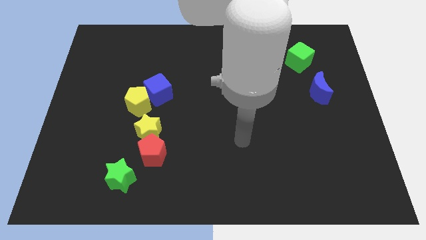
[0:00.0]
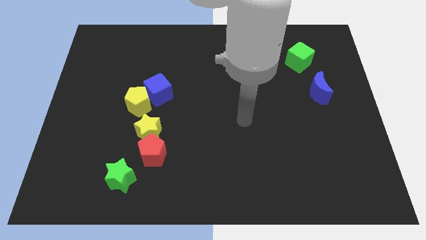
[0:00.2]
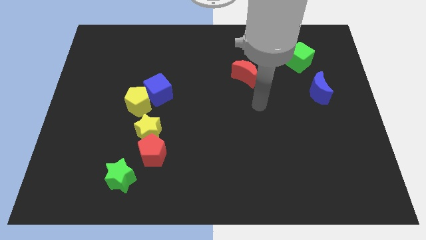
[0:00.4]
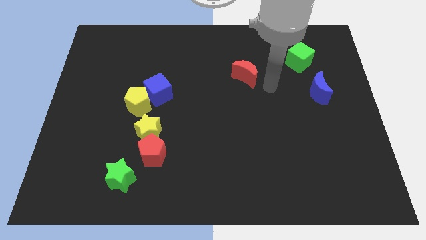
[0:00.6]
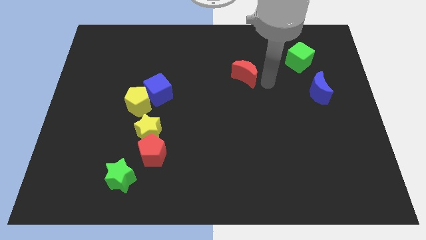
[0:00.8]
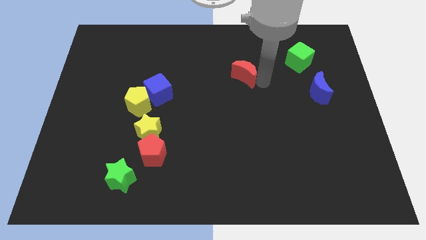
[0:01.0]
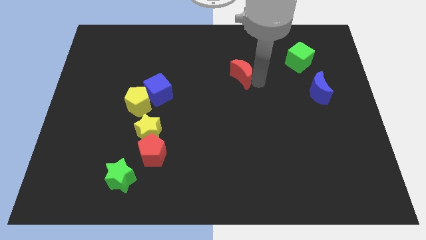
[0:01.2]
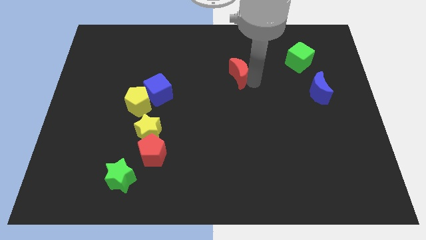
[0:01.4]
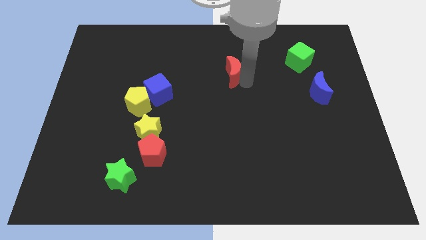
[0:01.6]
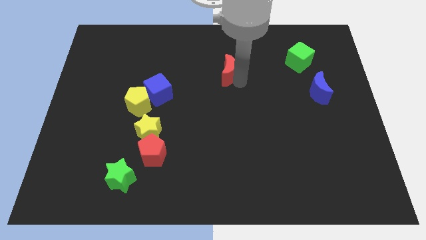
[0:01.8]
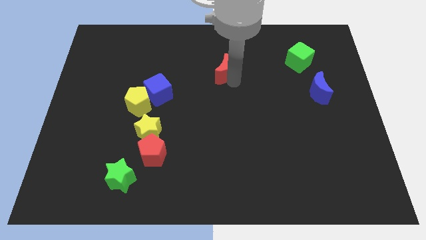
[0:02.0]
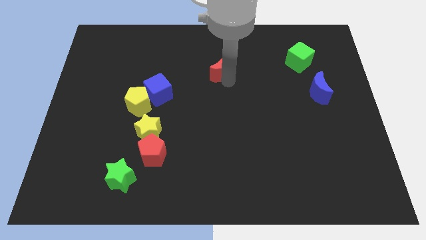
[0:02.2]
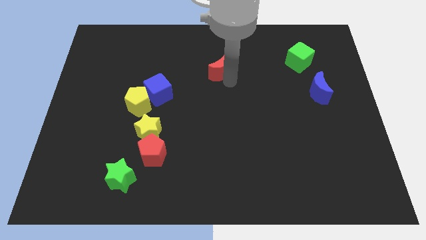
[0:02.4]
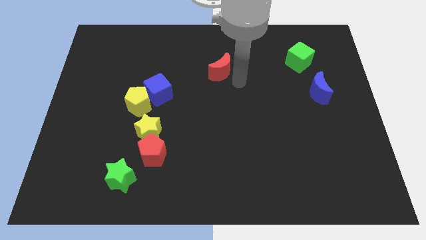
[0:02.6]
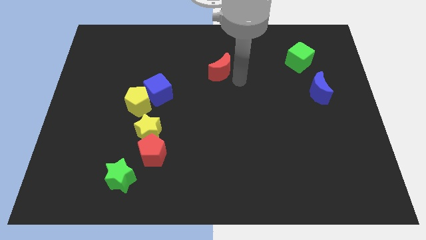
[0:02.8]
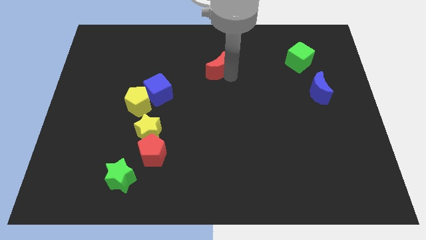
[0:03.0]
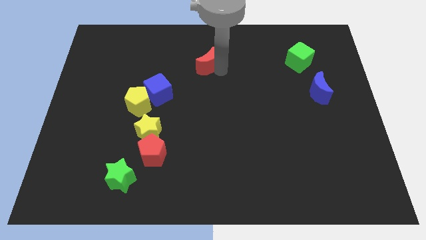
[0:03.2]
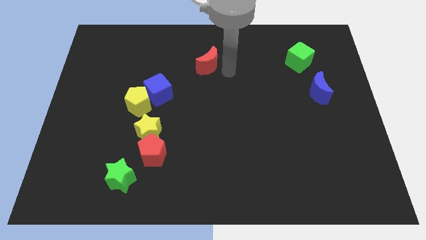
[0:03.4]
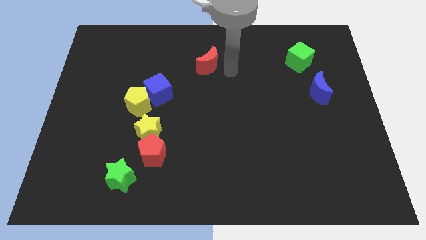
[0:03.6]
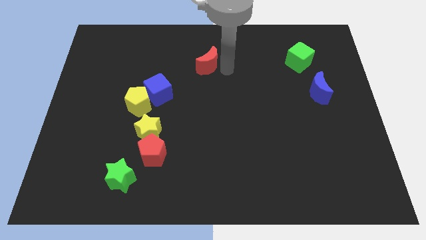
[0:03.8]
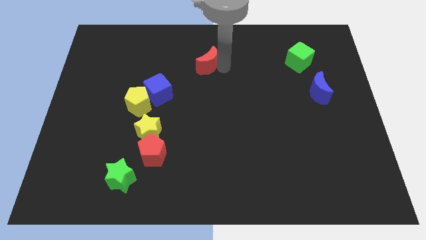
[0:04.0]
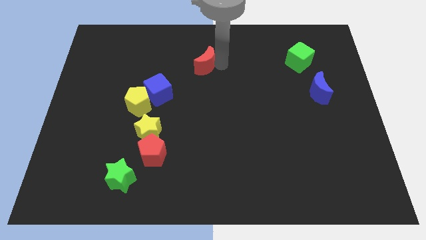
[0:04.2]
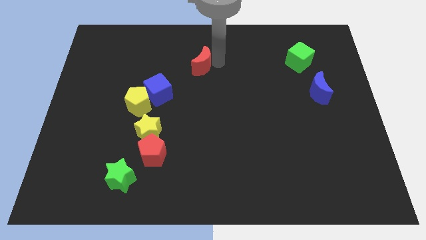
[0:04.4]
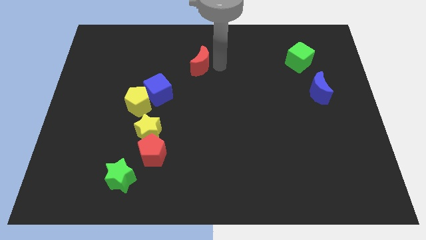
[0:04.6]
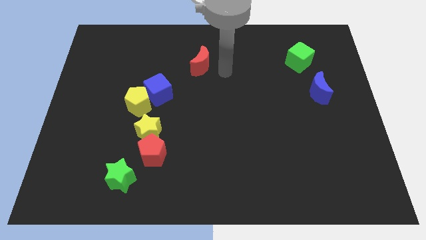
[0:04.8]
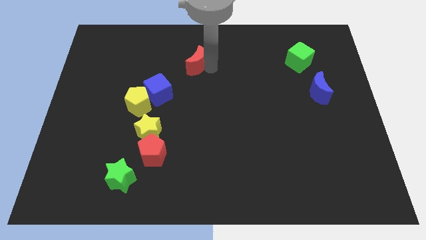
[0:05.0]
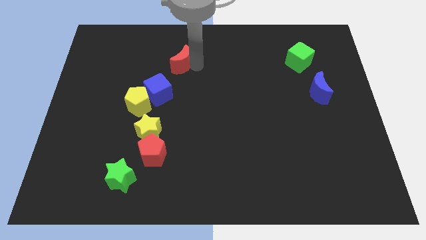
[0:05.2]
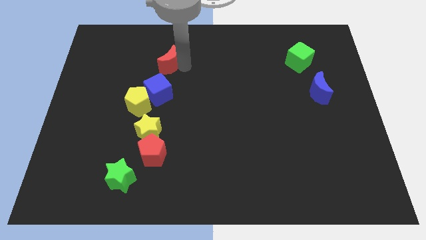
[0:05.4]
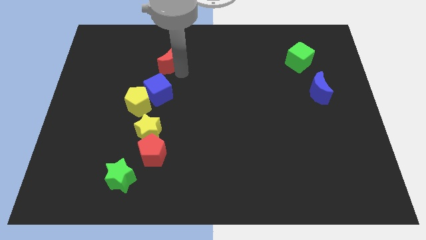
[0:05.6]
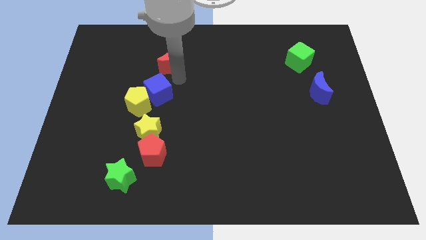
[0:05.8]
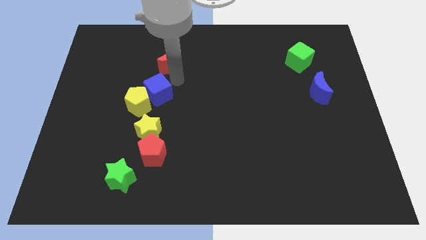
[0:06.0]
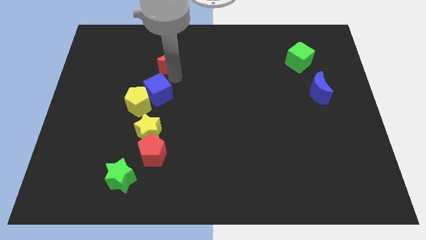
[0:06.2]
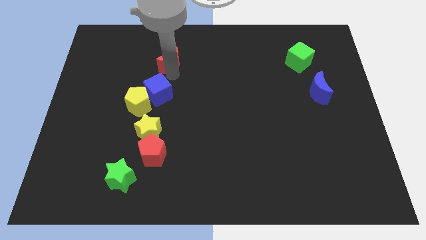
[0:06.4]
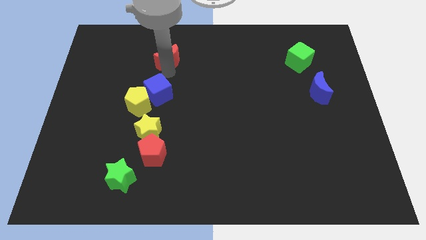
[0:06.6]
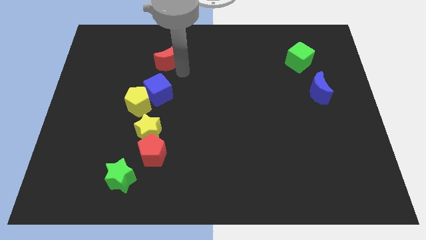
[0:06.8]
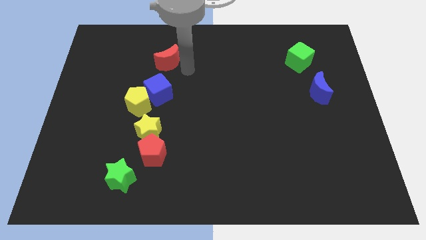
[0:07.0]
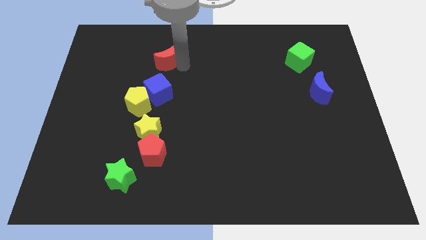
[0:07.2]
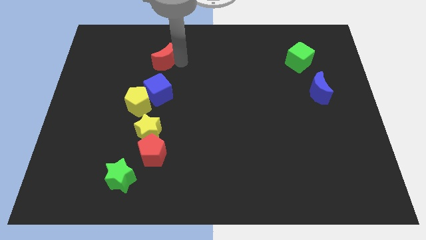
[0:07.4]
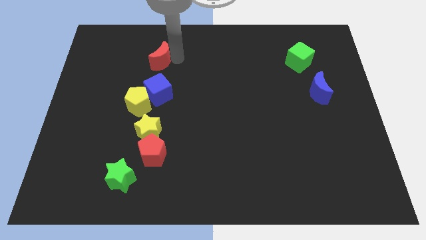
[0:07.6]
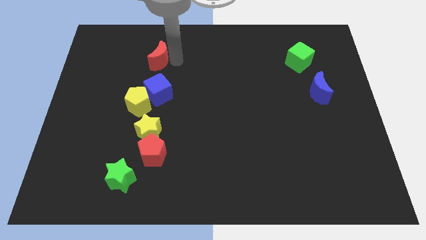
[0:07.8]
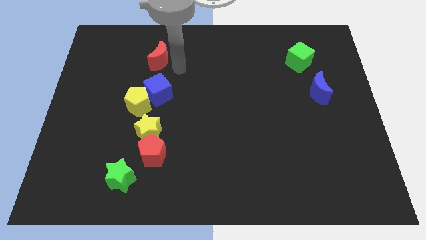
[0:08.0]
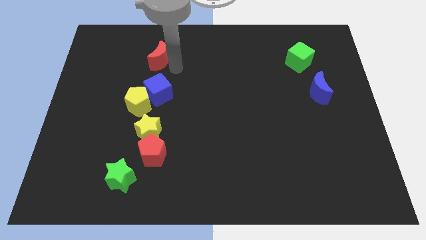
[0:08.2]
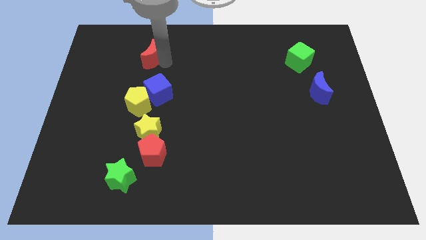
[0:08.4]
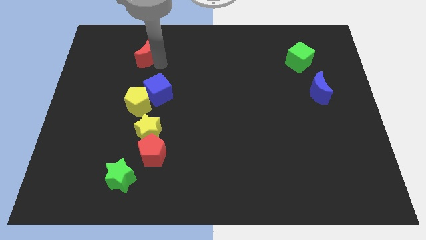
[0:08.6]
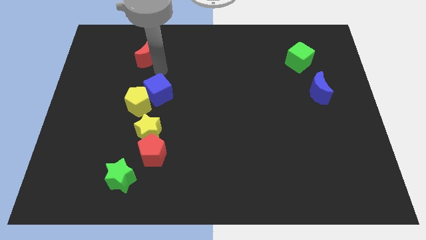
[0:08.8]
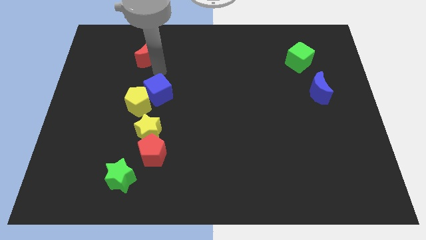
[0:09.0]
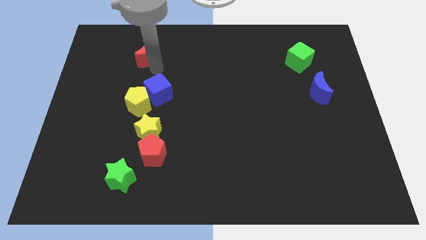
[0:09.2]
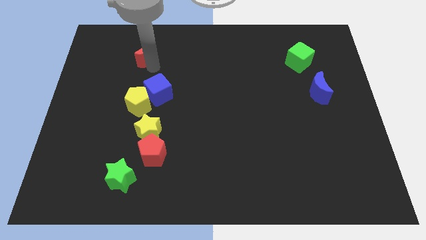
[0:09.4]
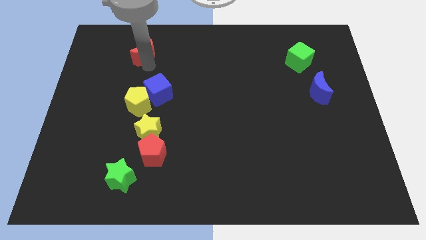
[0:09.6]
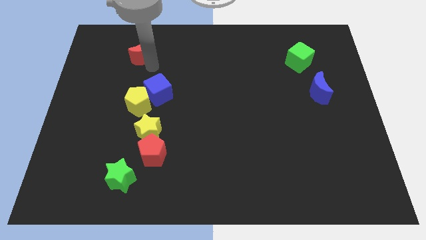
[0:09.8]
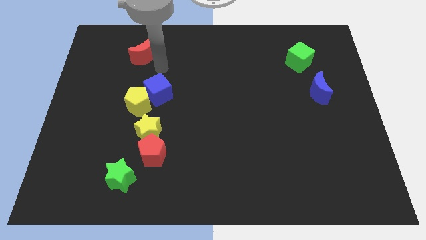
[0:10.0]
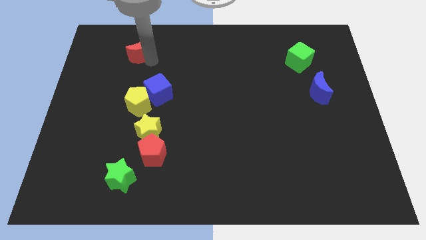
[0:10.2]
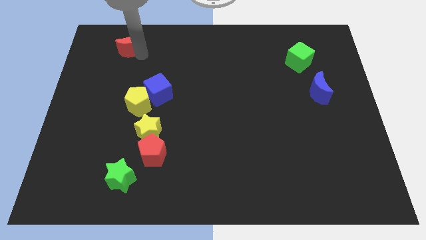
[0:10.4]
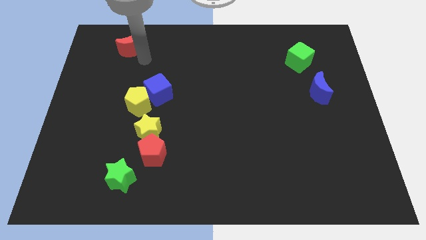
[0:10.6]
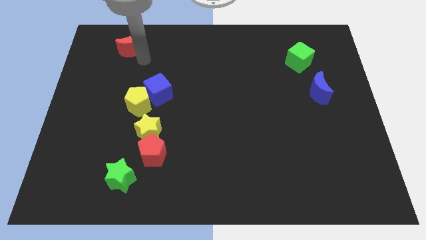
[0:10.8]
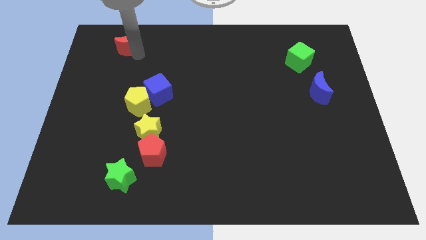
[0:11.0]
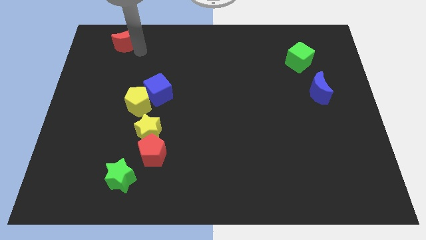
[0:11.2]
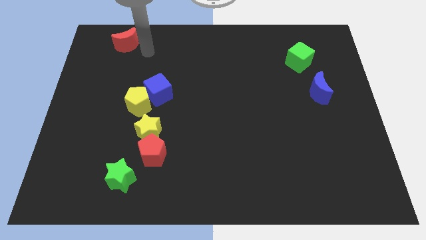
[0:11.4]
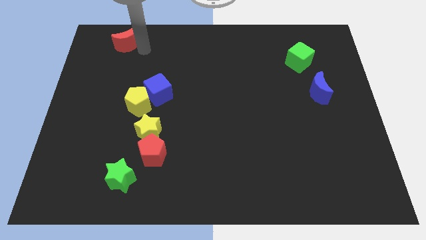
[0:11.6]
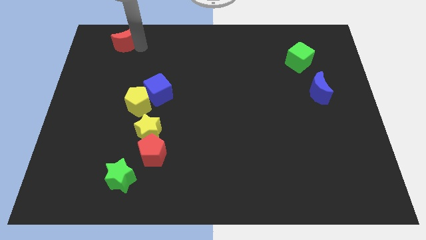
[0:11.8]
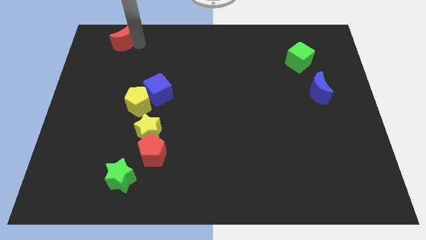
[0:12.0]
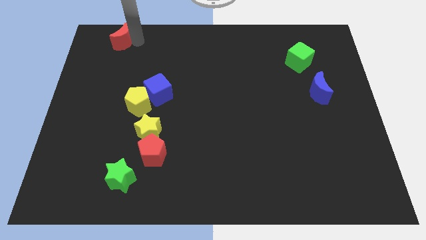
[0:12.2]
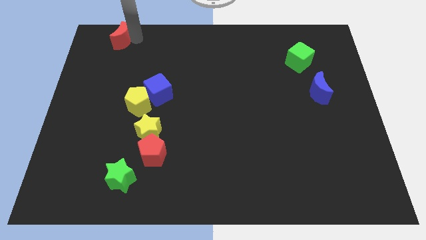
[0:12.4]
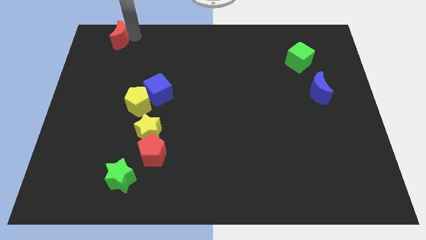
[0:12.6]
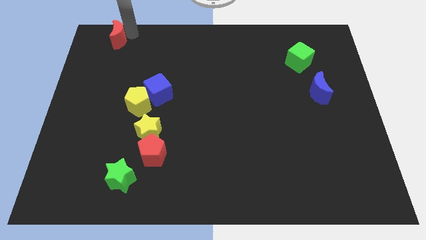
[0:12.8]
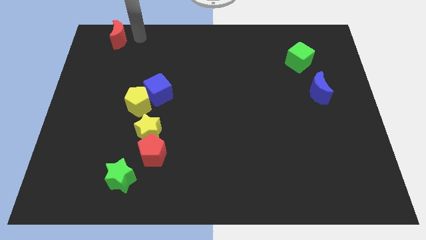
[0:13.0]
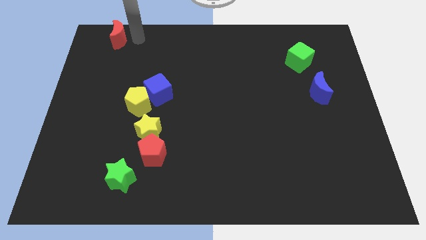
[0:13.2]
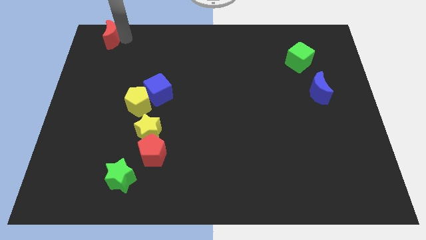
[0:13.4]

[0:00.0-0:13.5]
slide the red moon to the top left of the board
